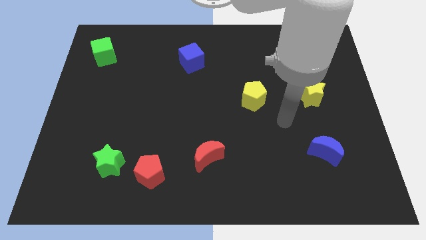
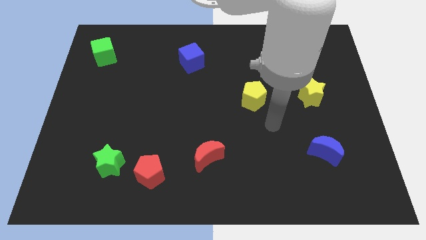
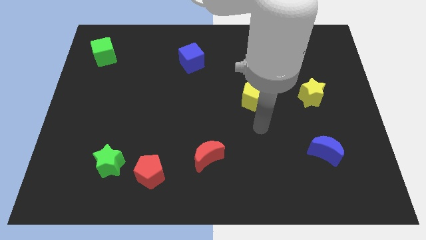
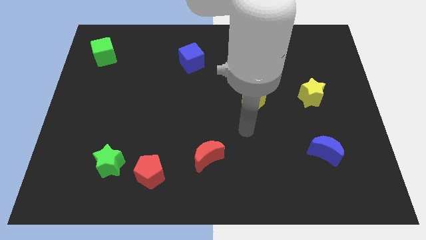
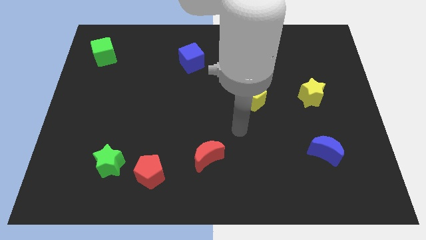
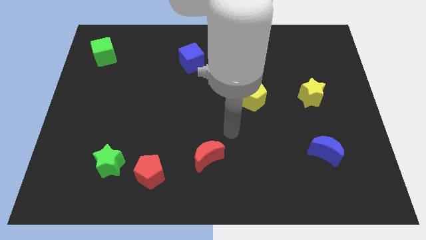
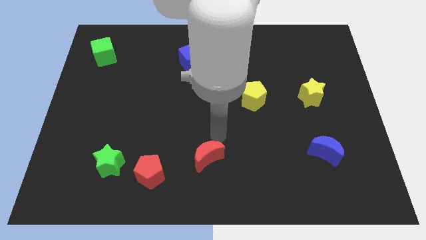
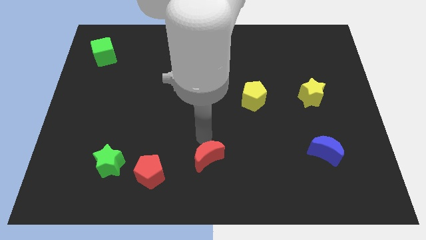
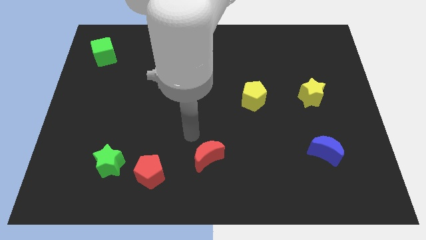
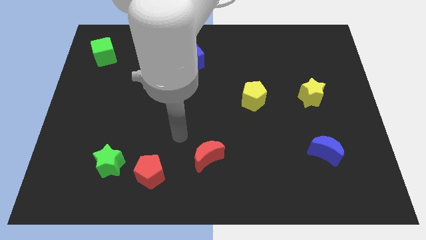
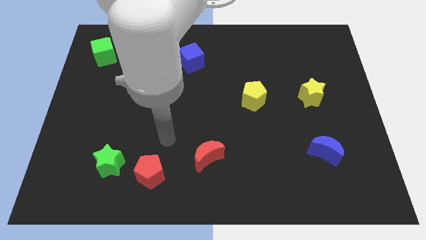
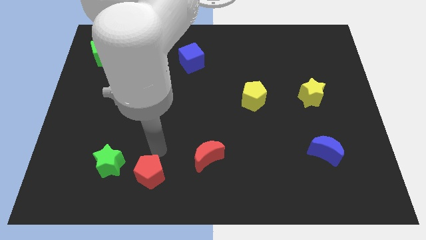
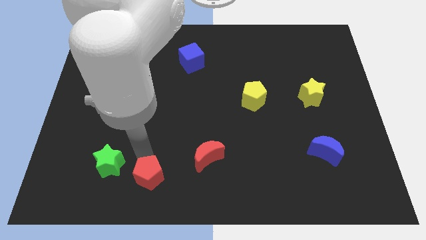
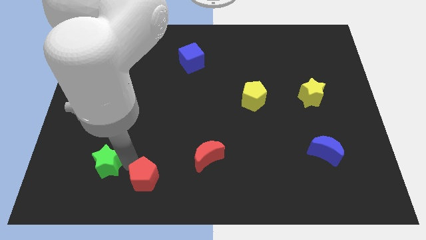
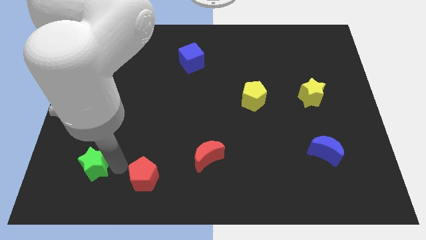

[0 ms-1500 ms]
move the red pentagon away from the green star

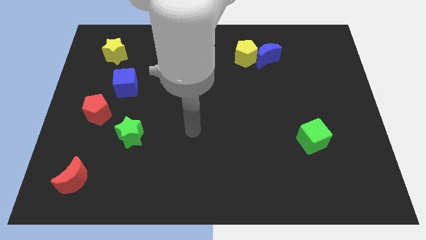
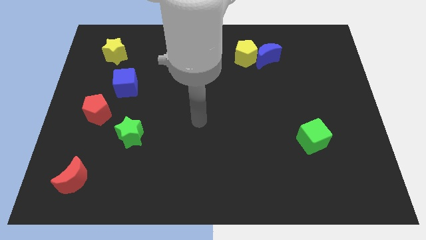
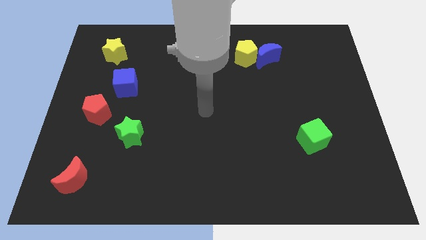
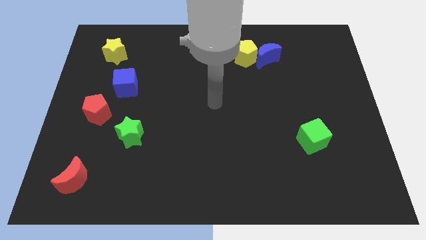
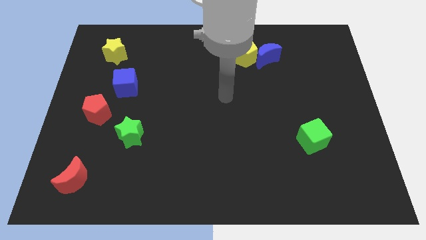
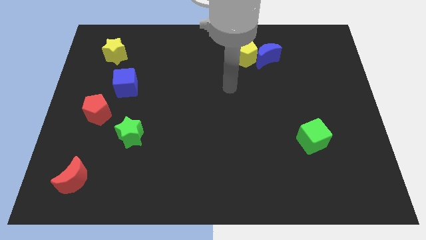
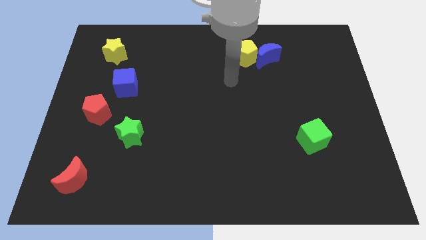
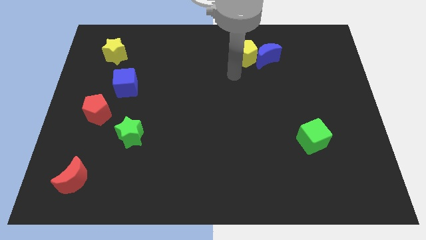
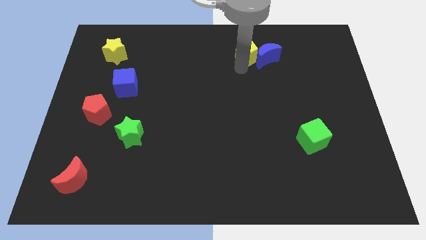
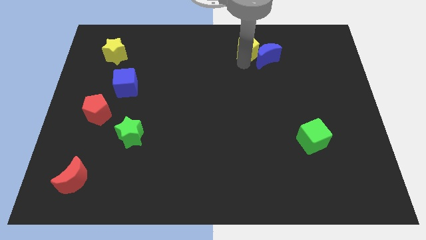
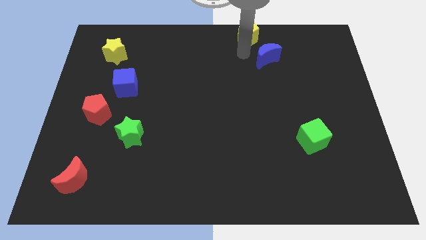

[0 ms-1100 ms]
move the blue moon away from the yellow pentagon

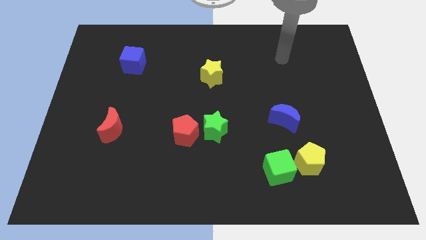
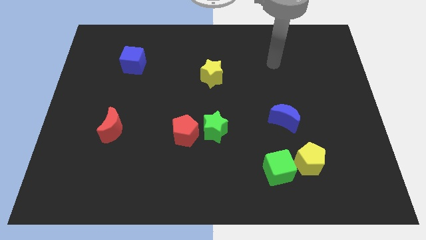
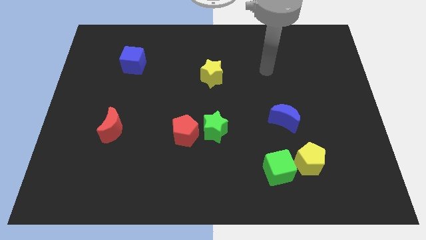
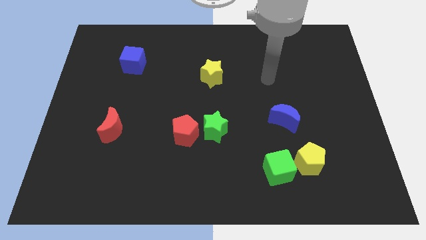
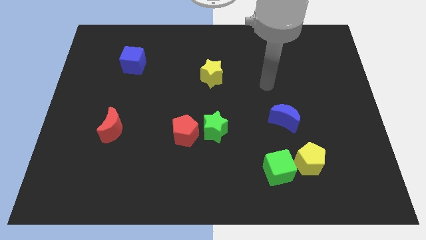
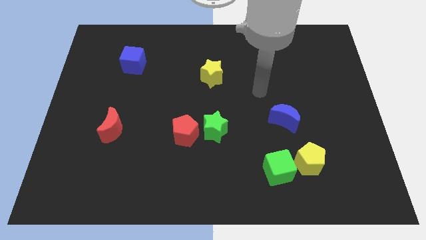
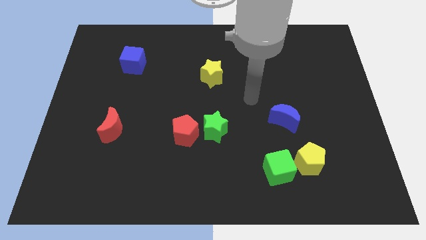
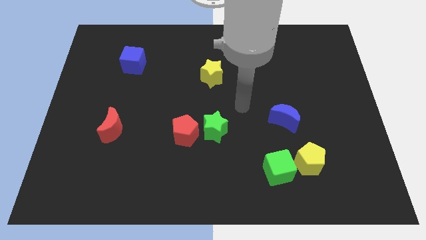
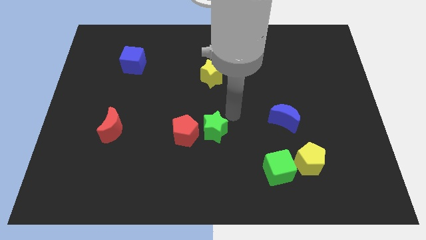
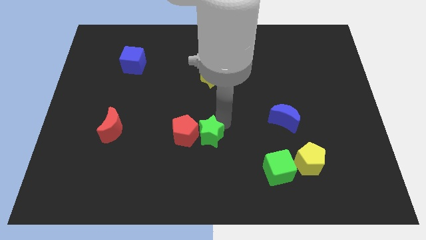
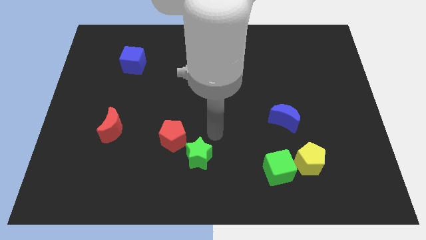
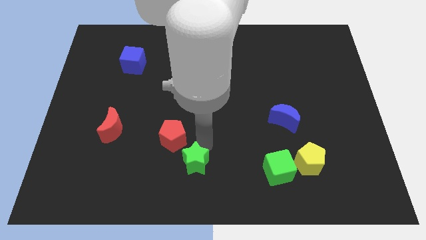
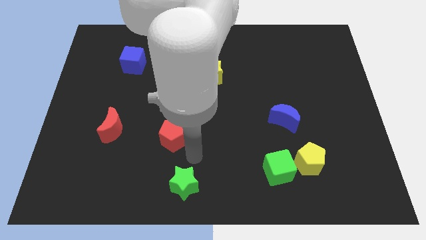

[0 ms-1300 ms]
pull the red pentagon apart from the green star

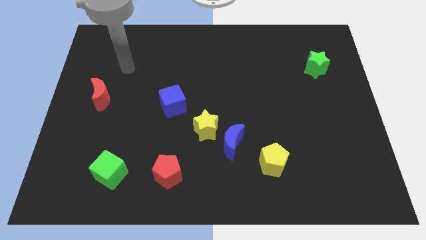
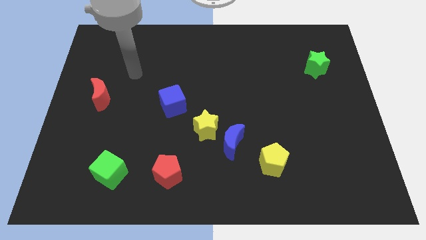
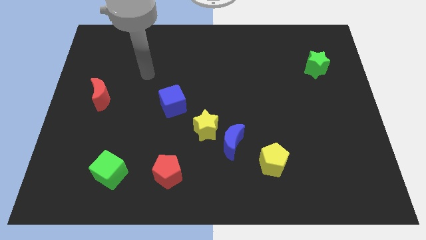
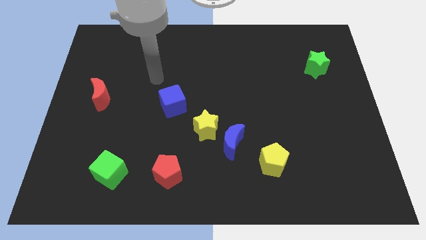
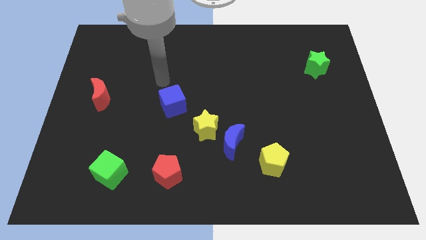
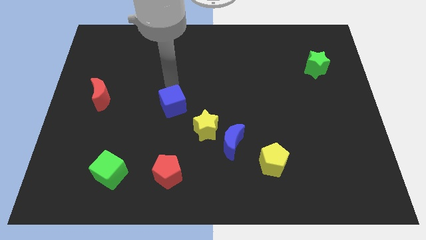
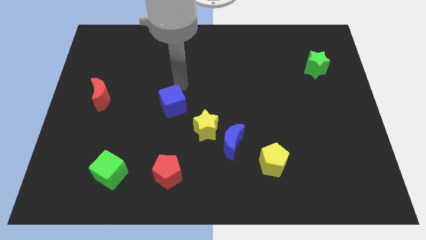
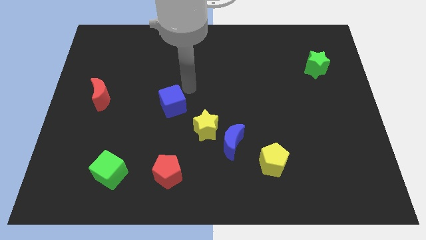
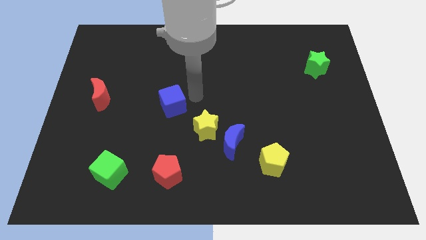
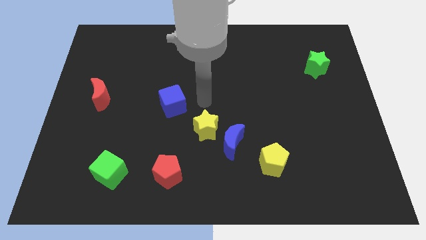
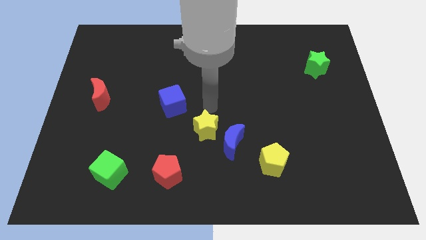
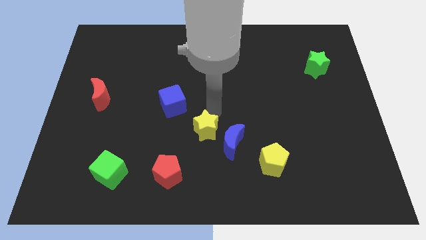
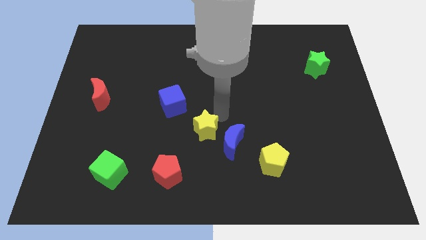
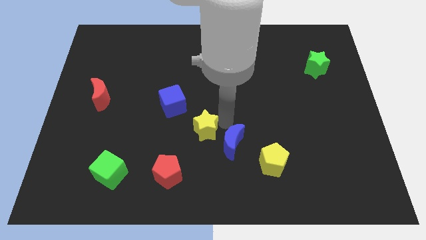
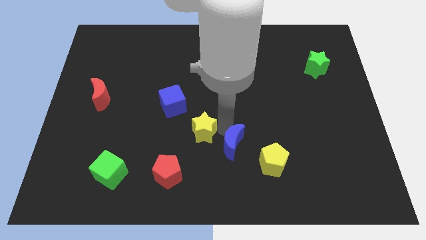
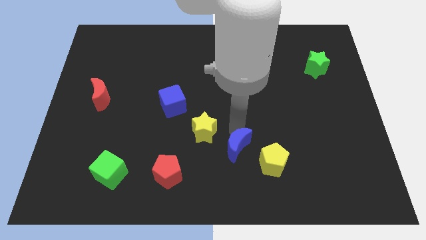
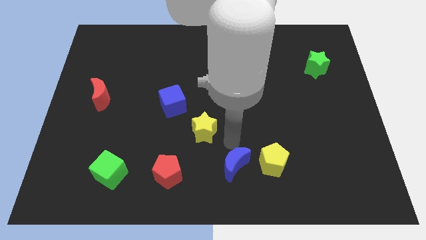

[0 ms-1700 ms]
move the yellow star away from the blue moon

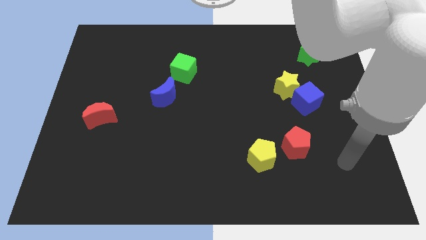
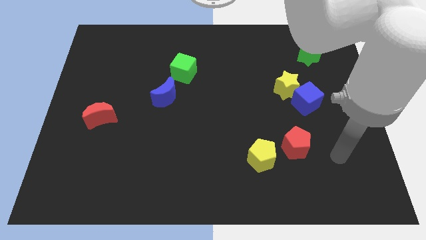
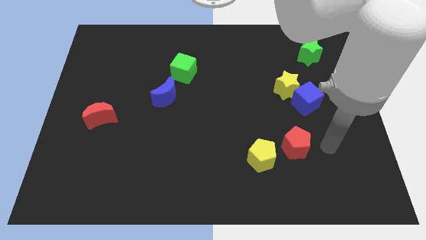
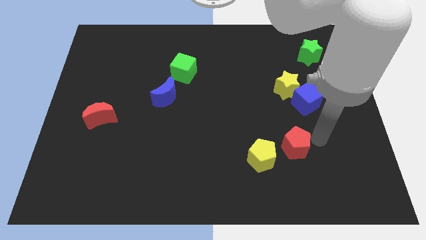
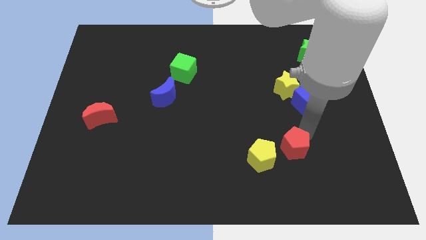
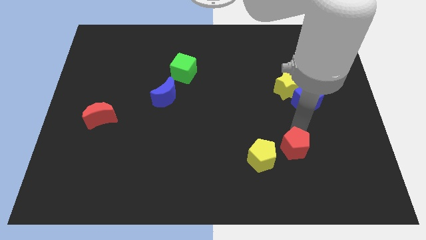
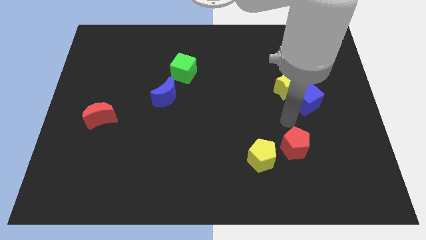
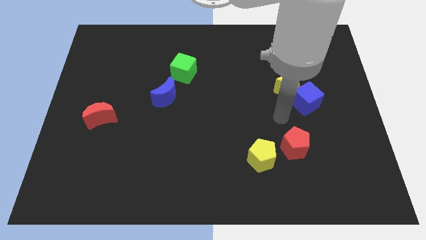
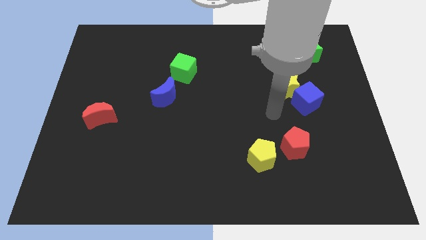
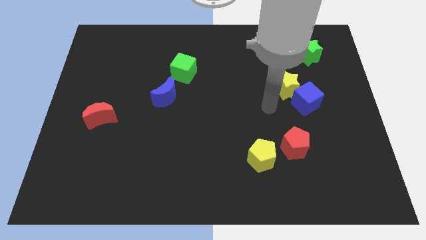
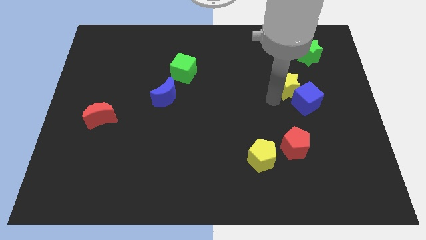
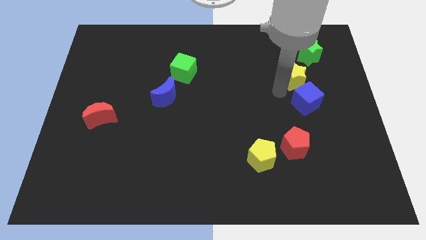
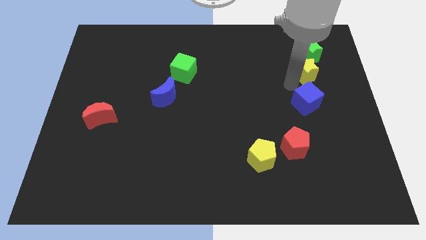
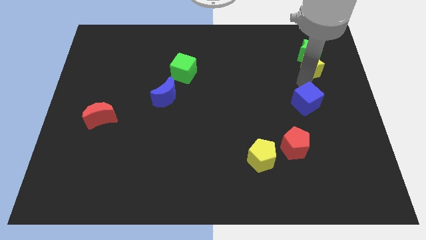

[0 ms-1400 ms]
pull the blue cube apart from the yellow star

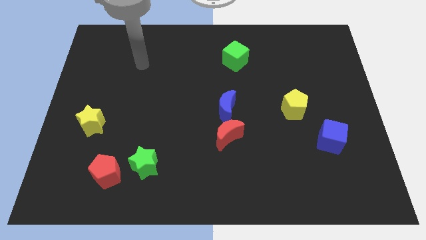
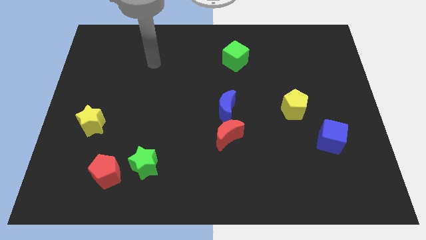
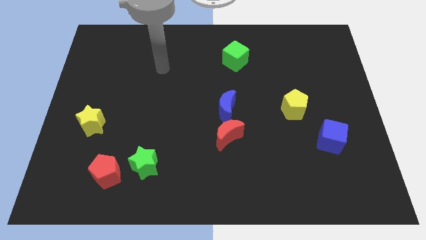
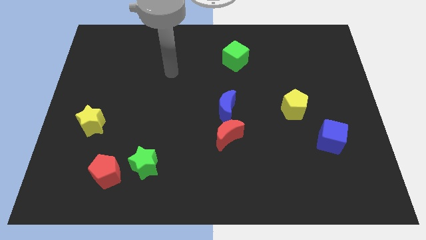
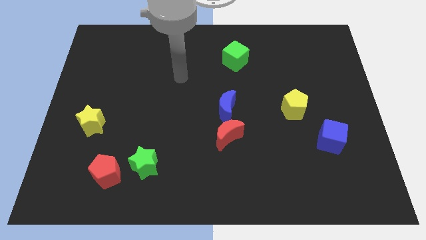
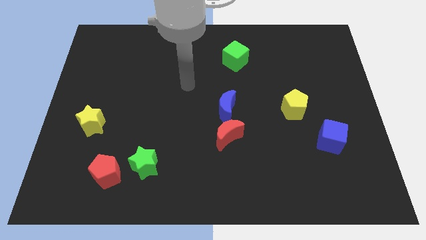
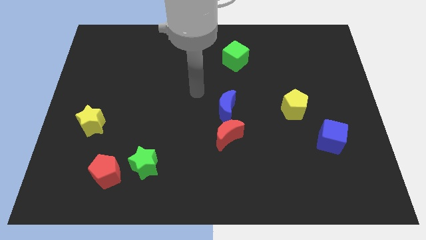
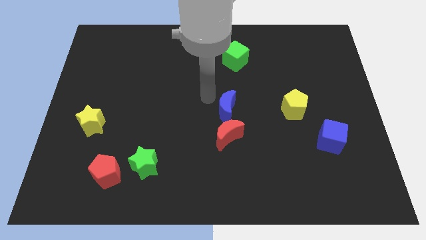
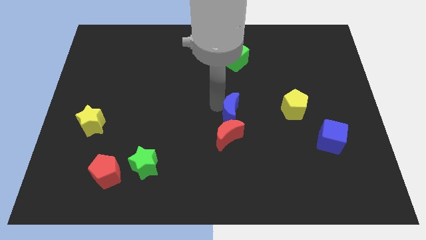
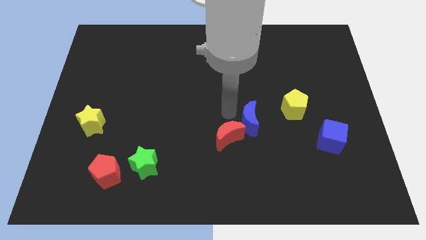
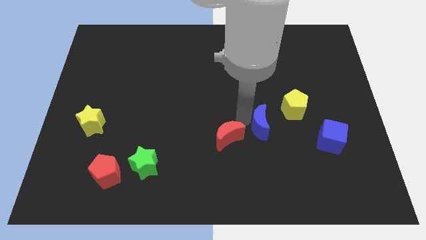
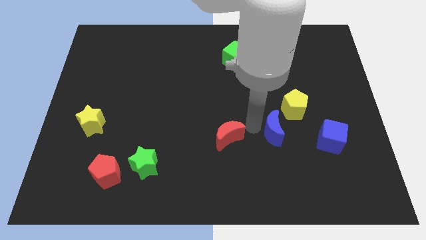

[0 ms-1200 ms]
move the red moon away from the blue moon

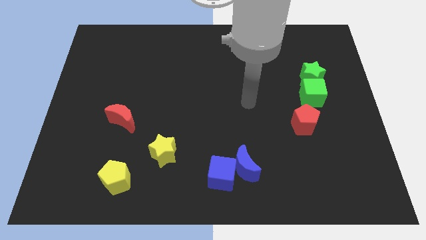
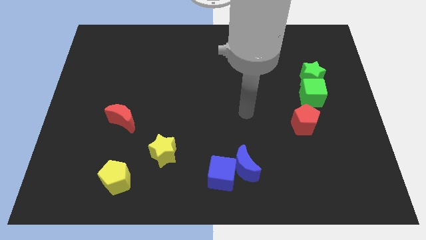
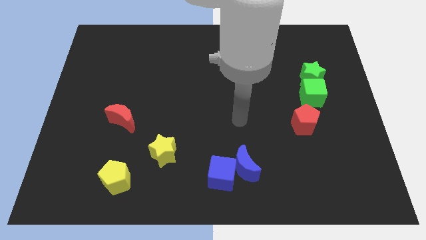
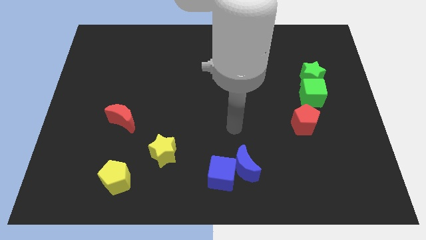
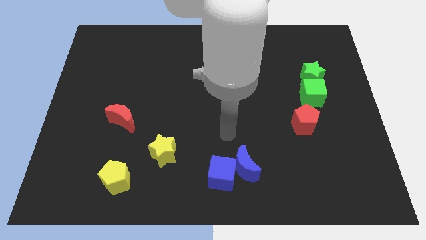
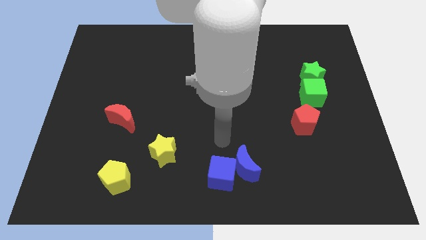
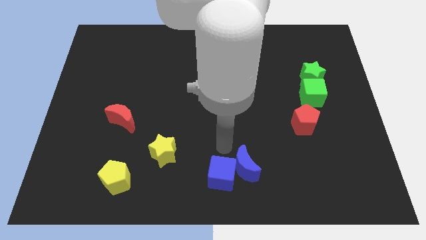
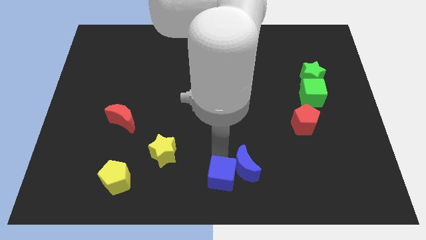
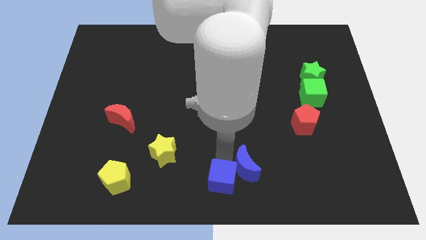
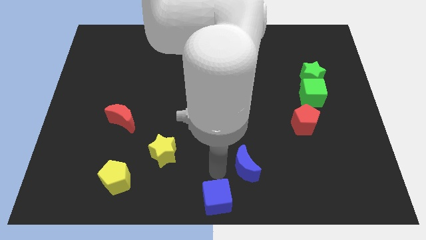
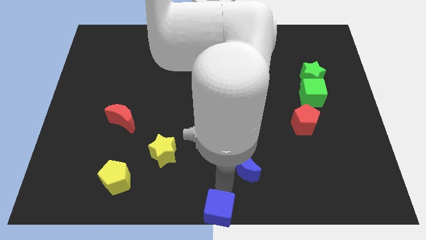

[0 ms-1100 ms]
move the blue moon away from the blue cube
